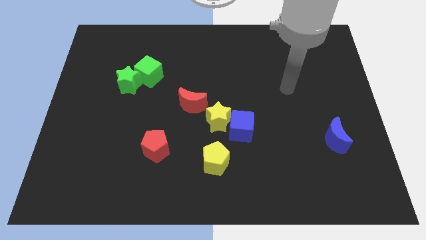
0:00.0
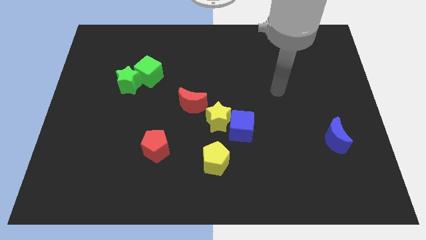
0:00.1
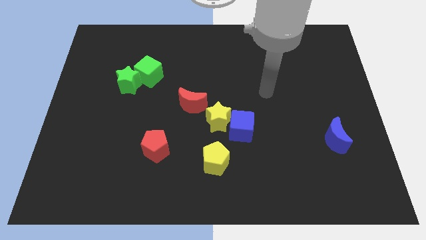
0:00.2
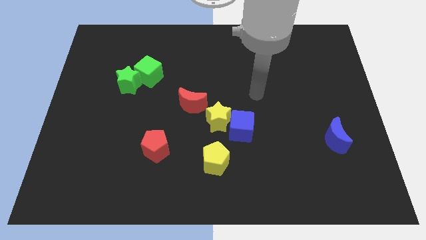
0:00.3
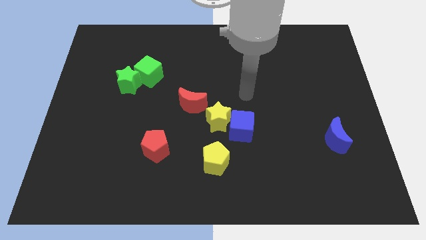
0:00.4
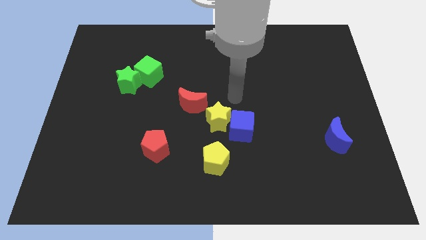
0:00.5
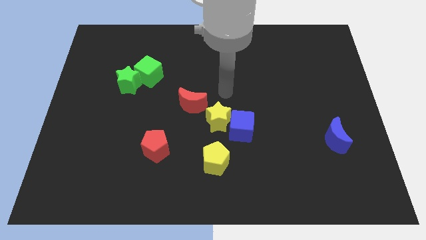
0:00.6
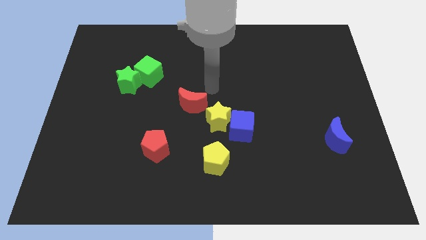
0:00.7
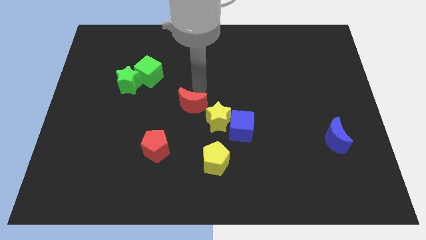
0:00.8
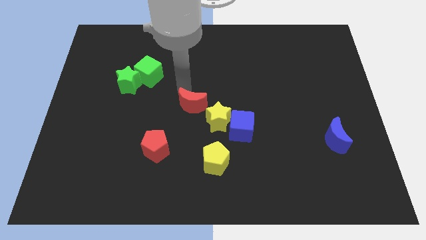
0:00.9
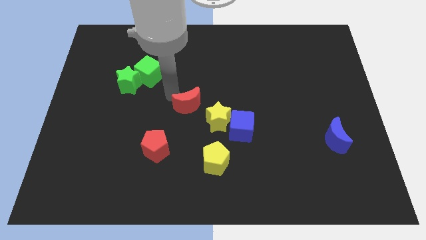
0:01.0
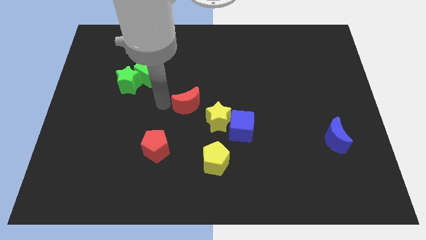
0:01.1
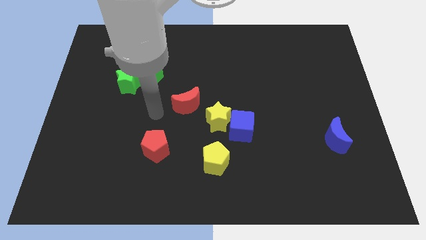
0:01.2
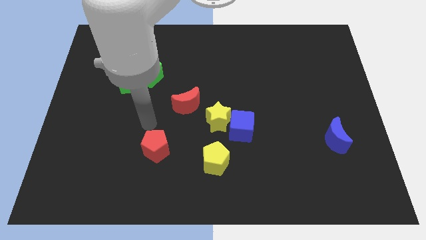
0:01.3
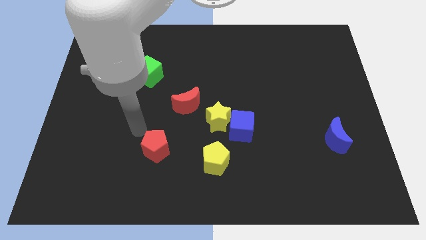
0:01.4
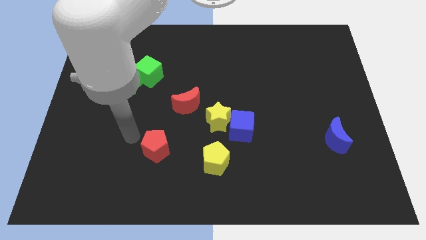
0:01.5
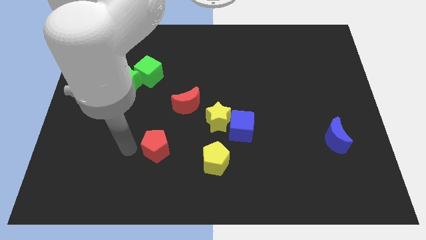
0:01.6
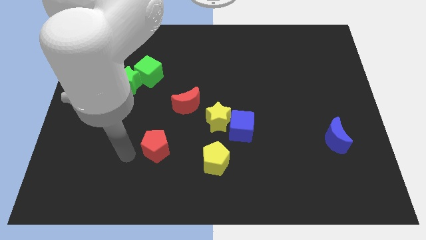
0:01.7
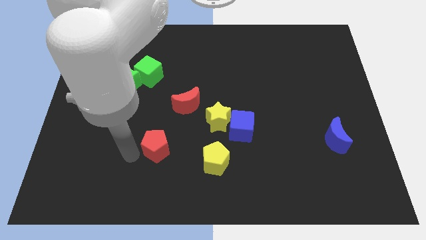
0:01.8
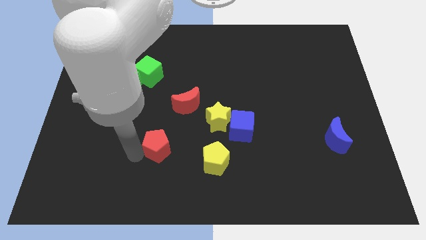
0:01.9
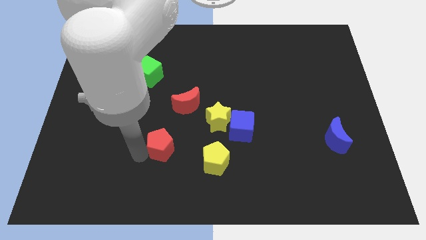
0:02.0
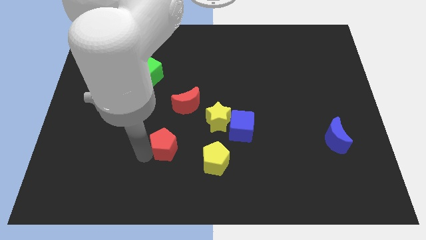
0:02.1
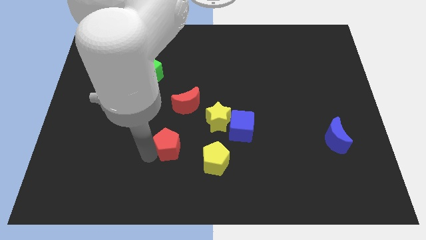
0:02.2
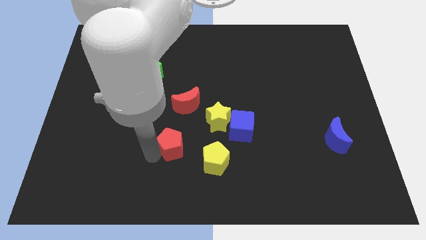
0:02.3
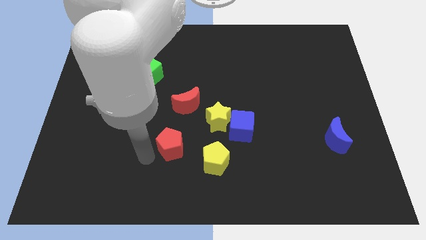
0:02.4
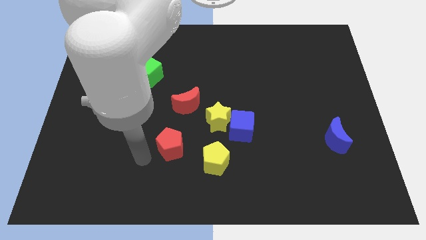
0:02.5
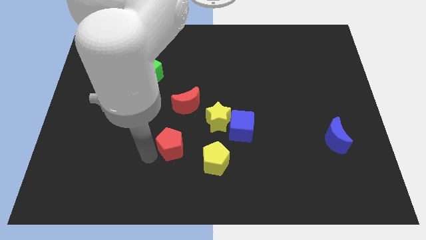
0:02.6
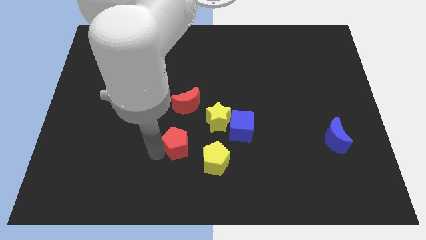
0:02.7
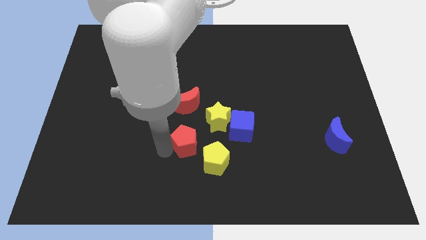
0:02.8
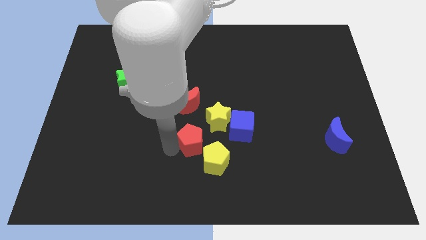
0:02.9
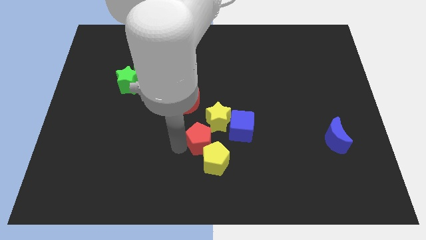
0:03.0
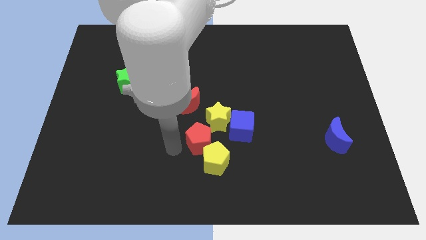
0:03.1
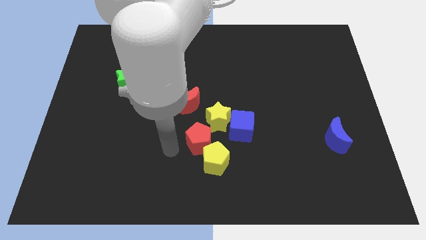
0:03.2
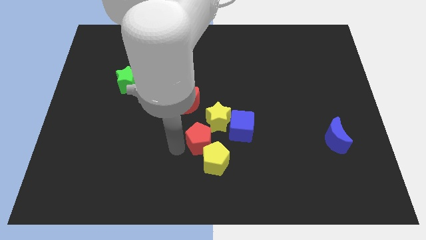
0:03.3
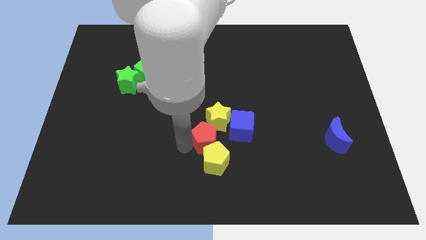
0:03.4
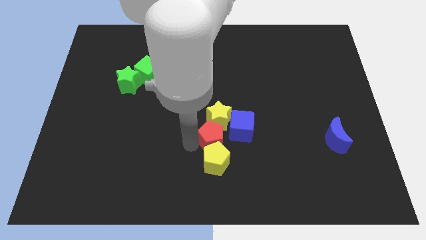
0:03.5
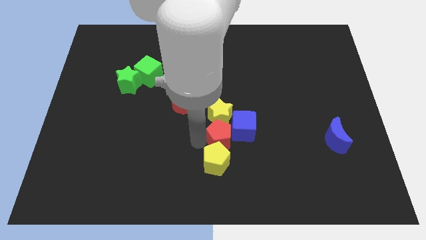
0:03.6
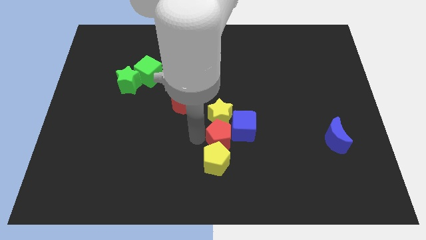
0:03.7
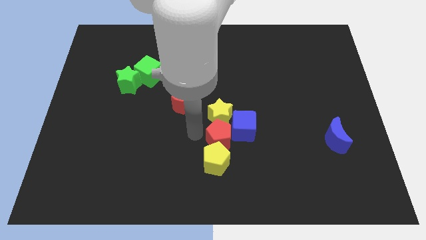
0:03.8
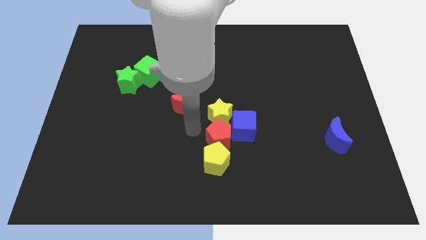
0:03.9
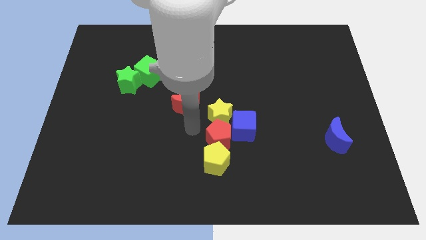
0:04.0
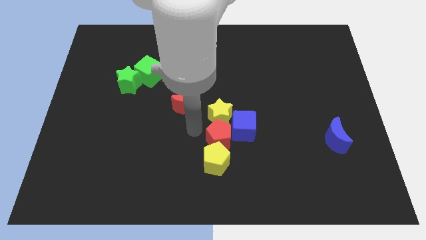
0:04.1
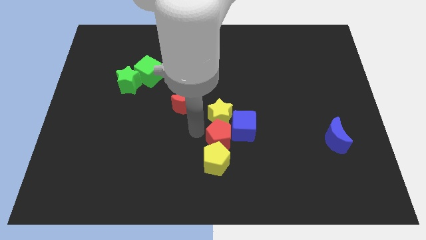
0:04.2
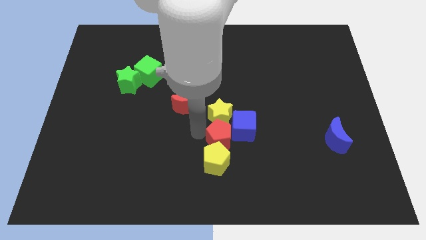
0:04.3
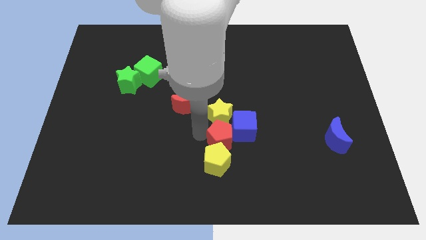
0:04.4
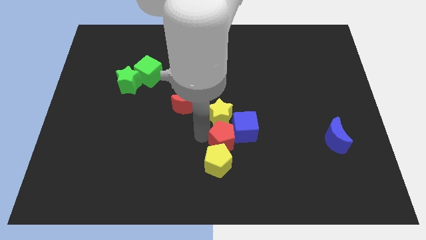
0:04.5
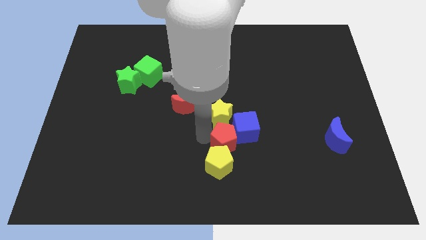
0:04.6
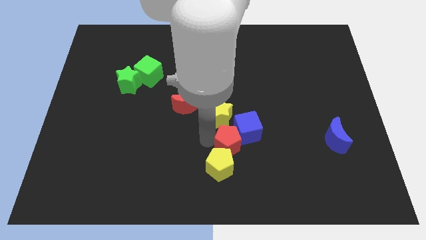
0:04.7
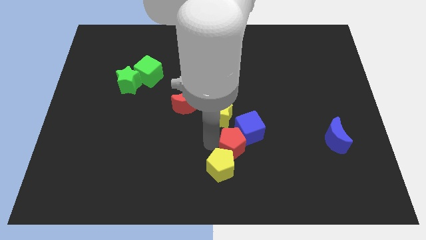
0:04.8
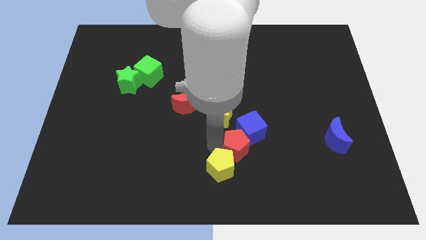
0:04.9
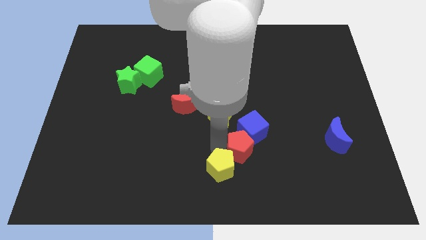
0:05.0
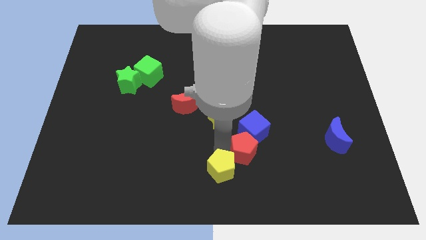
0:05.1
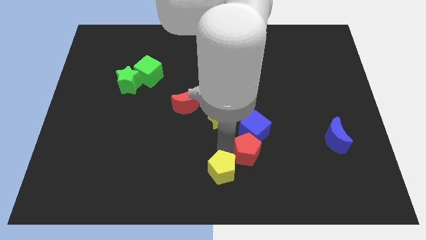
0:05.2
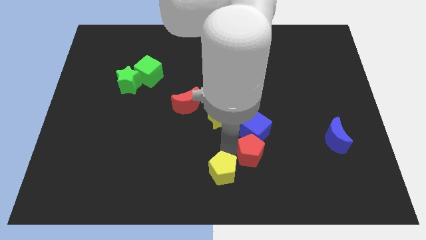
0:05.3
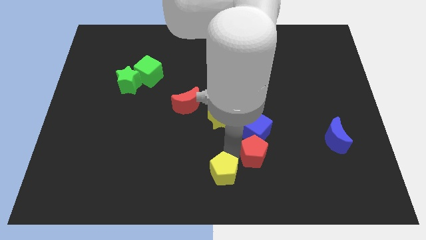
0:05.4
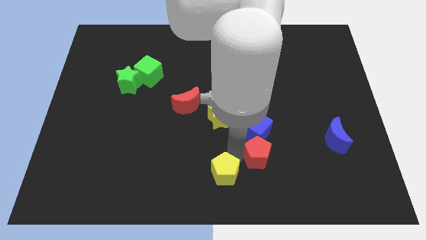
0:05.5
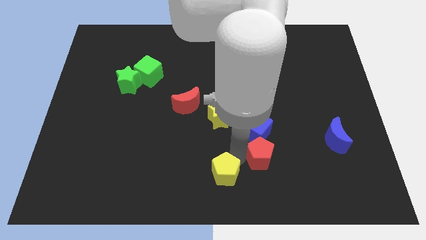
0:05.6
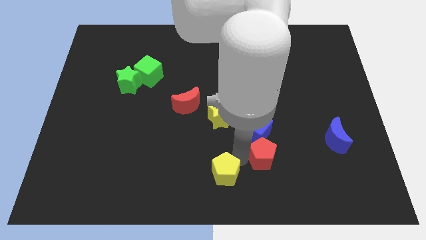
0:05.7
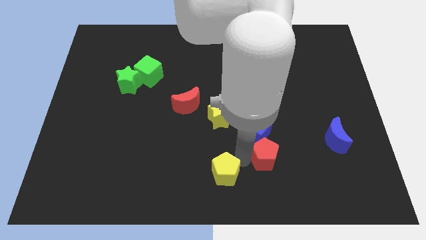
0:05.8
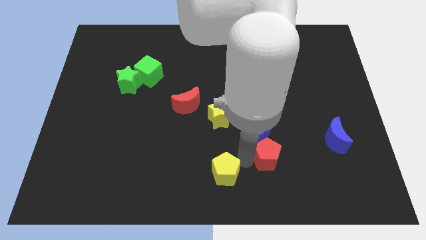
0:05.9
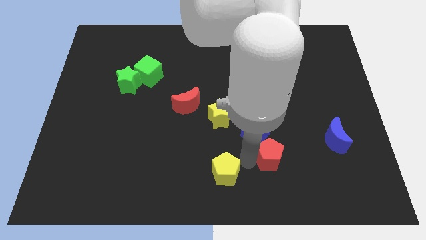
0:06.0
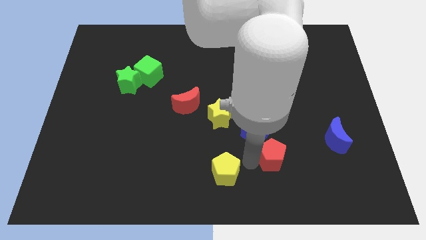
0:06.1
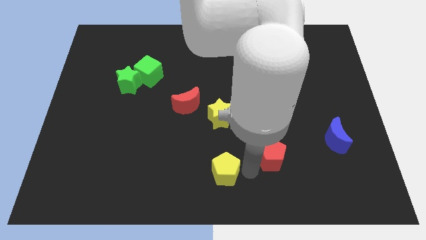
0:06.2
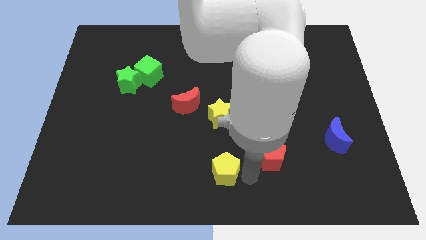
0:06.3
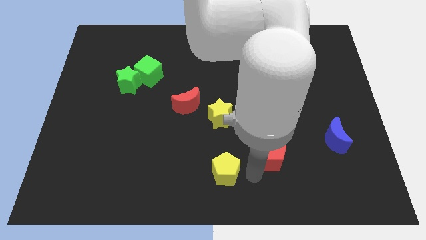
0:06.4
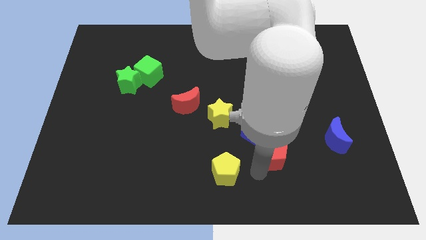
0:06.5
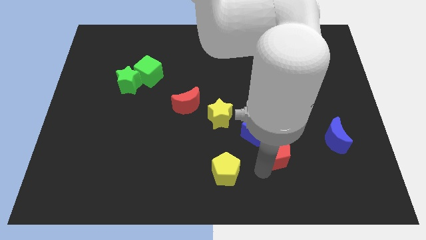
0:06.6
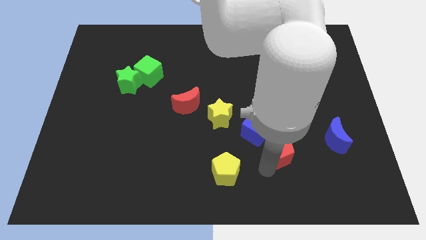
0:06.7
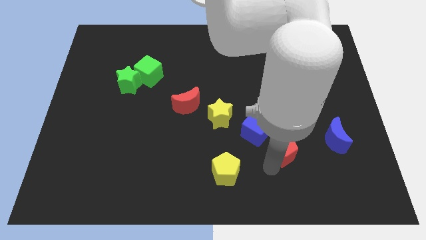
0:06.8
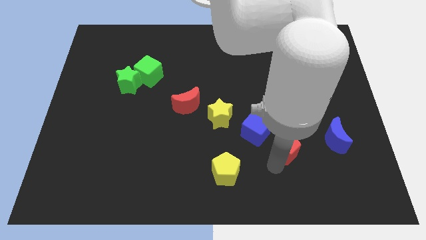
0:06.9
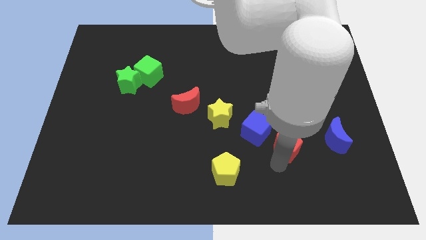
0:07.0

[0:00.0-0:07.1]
slide the red pentagon just right of the blue cube
